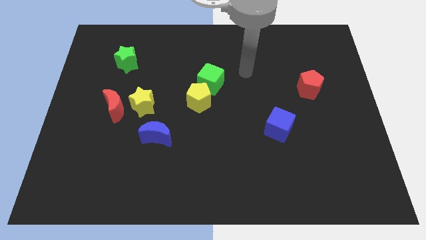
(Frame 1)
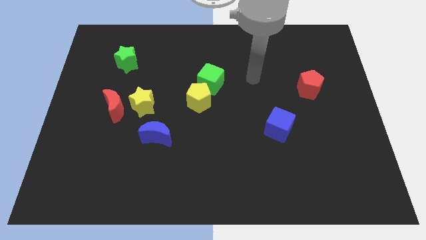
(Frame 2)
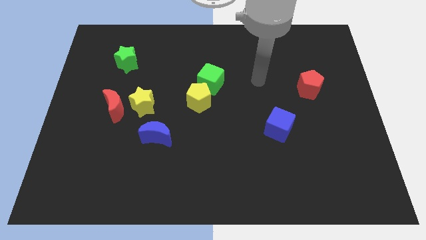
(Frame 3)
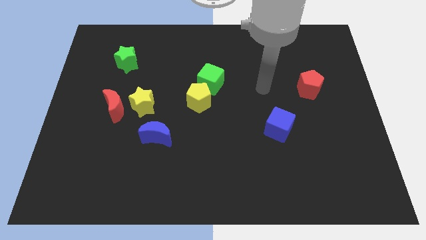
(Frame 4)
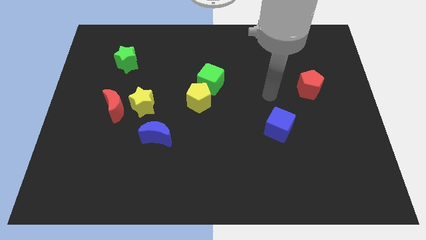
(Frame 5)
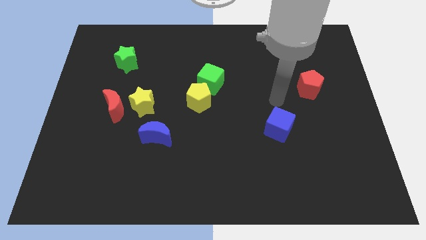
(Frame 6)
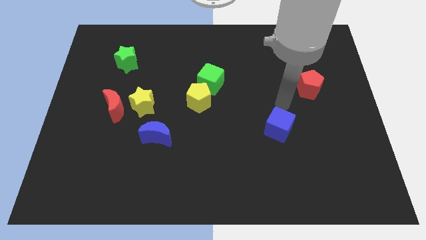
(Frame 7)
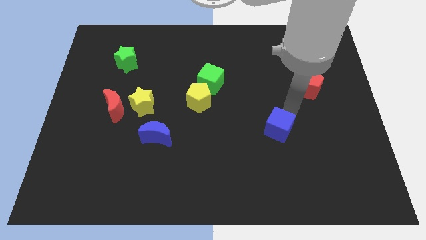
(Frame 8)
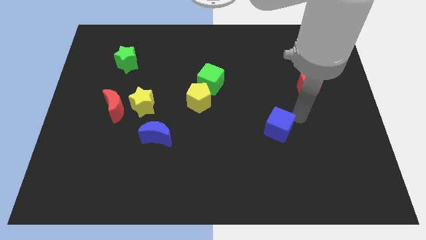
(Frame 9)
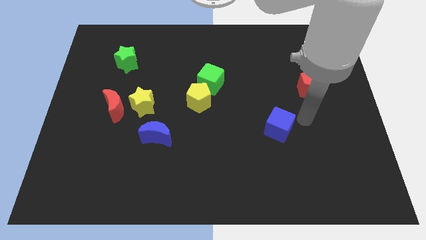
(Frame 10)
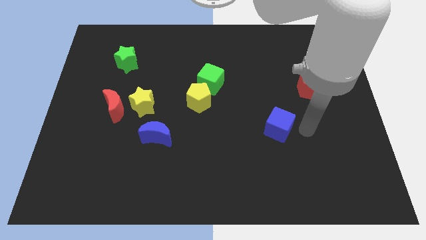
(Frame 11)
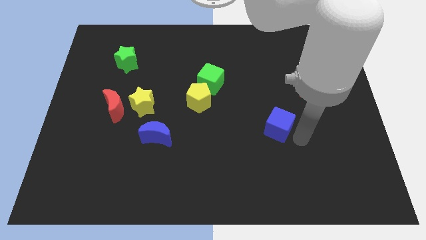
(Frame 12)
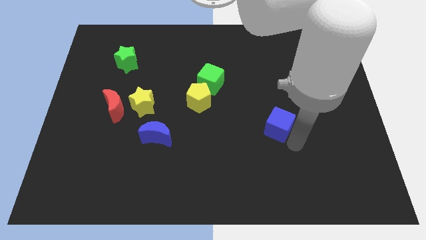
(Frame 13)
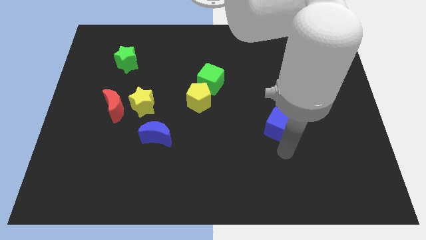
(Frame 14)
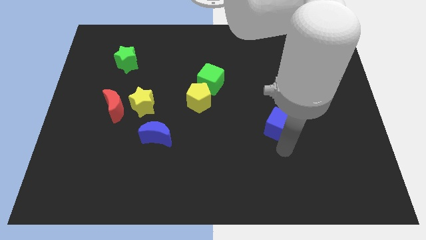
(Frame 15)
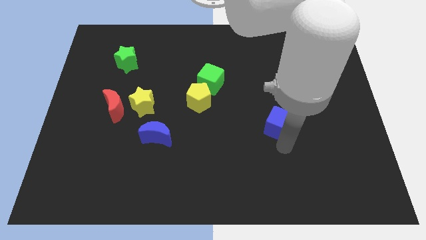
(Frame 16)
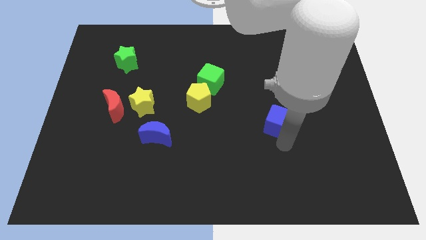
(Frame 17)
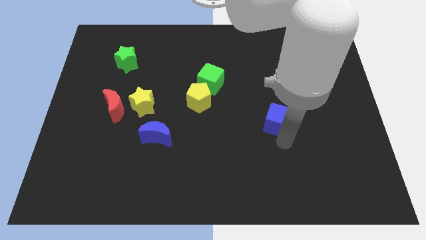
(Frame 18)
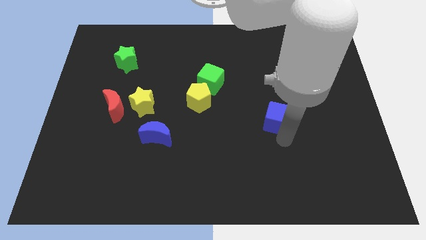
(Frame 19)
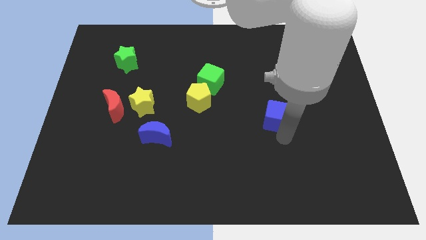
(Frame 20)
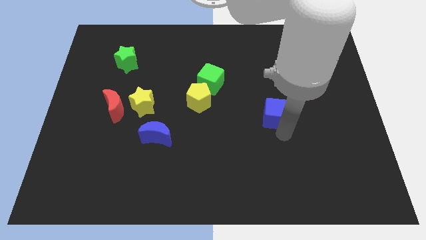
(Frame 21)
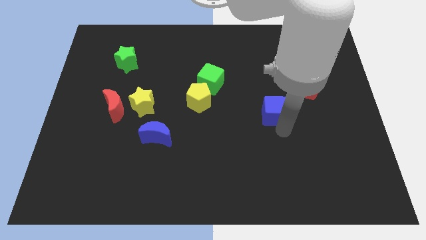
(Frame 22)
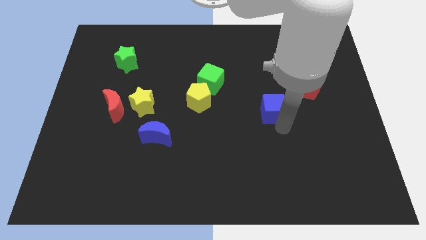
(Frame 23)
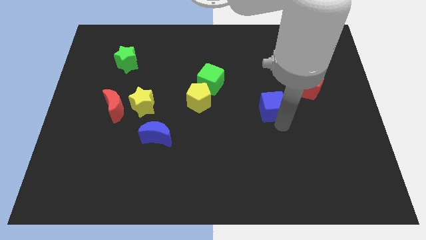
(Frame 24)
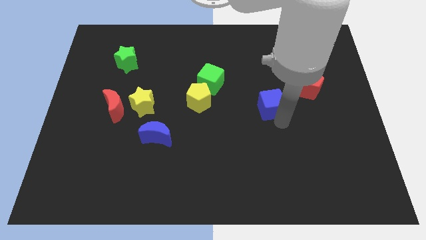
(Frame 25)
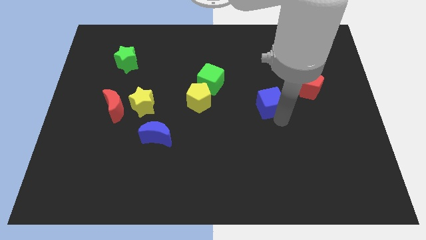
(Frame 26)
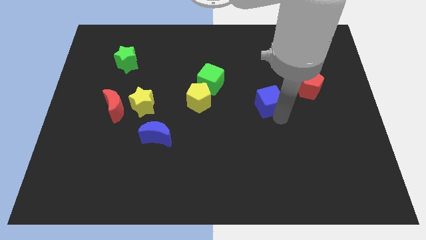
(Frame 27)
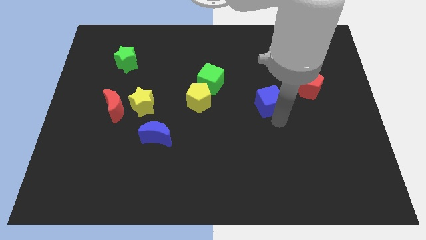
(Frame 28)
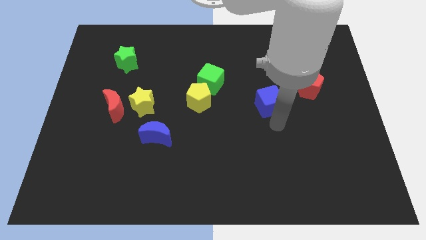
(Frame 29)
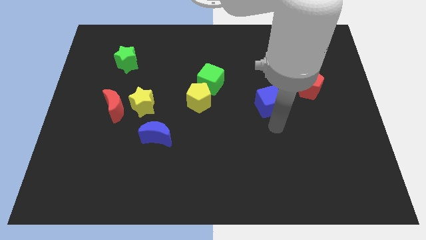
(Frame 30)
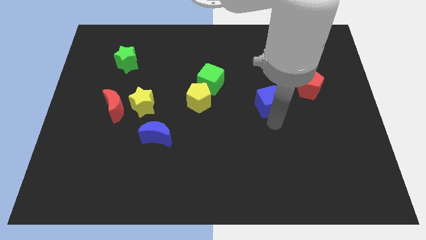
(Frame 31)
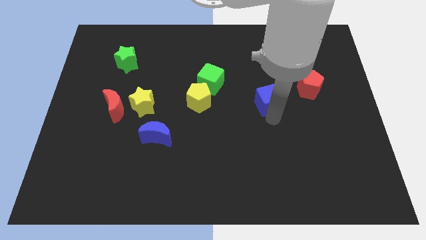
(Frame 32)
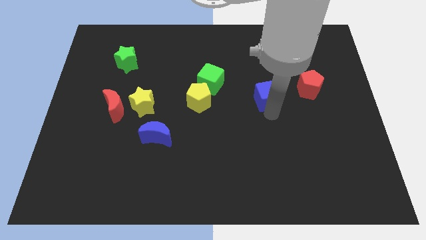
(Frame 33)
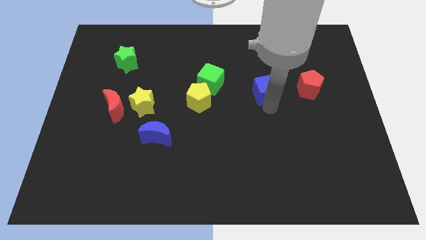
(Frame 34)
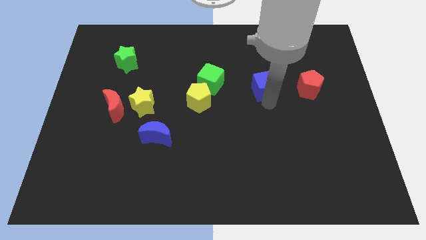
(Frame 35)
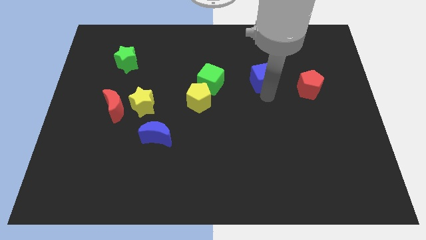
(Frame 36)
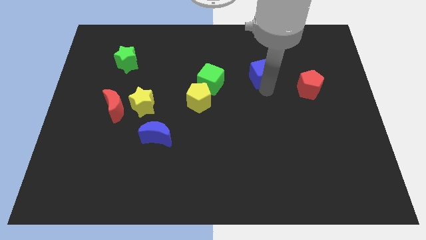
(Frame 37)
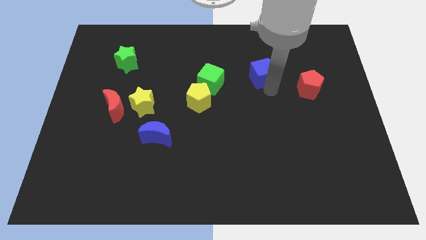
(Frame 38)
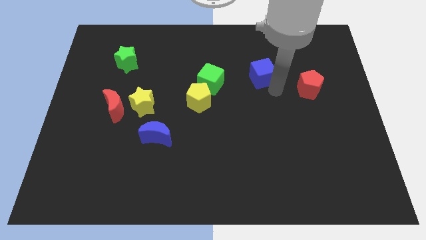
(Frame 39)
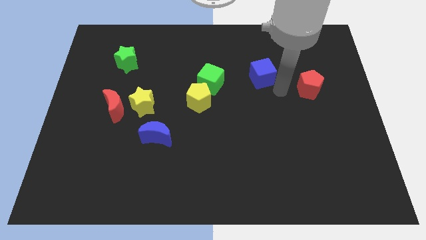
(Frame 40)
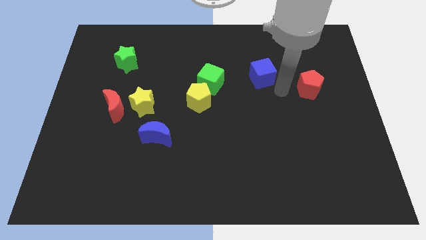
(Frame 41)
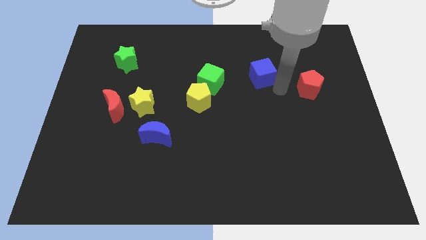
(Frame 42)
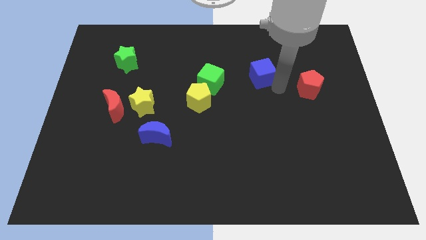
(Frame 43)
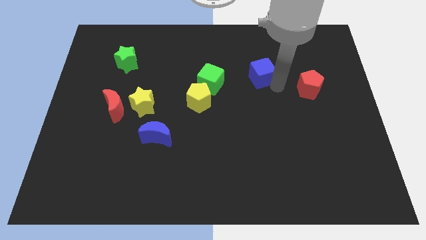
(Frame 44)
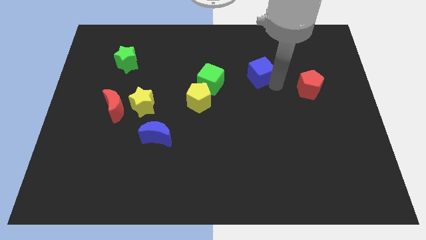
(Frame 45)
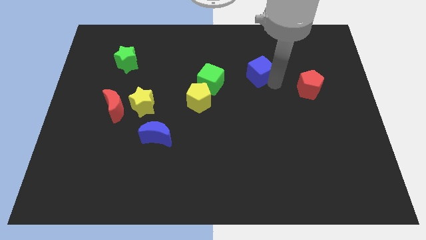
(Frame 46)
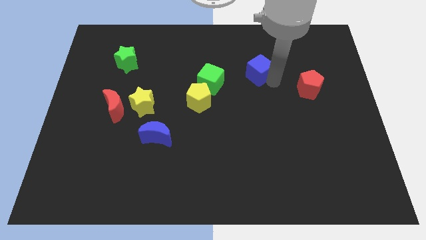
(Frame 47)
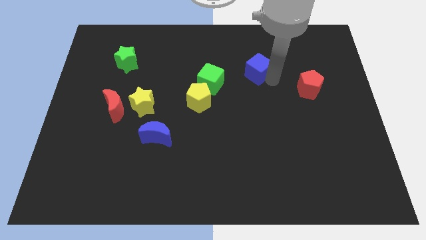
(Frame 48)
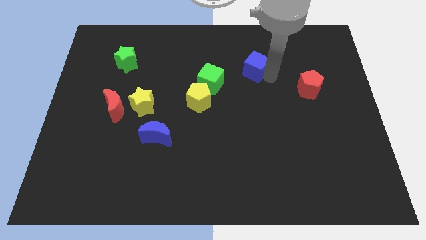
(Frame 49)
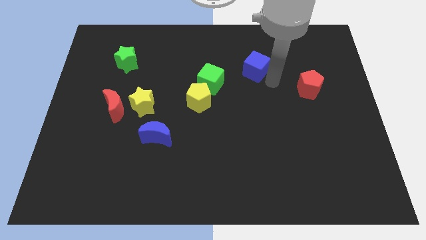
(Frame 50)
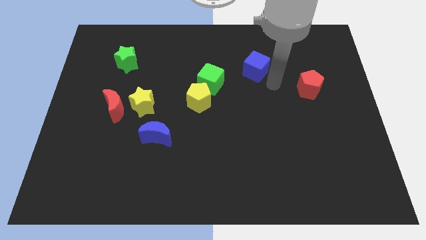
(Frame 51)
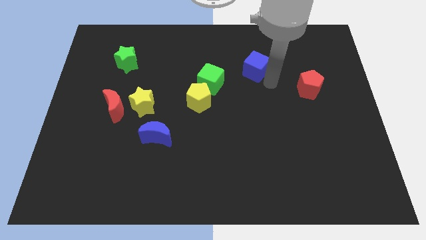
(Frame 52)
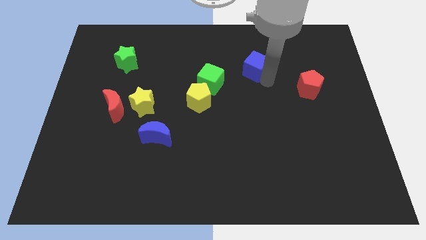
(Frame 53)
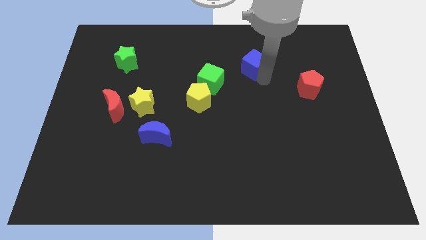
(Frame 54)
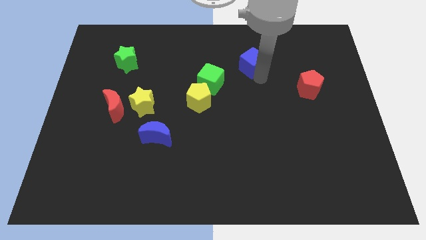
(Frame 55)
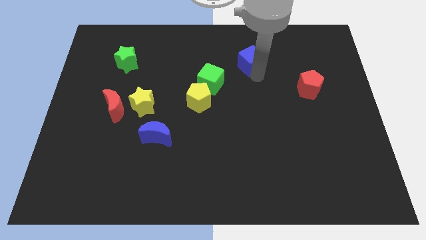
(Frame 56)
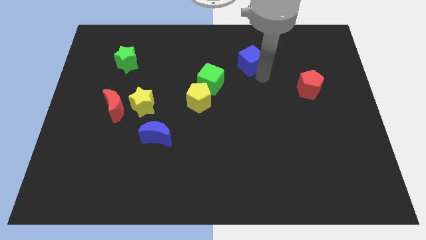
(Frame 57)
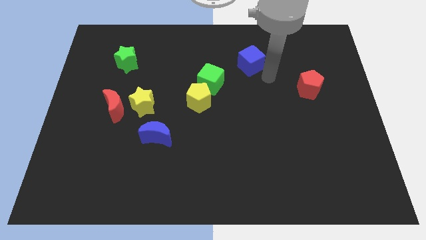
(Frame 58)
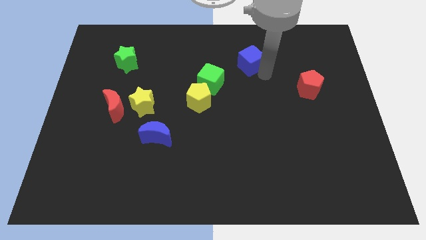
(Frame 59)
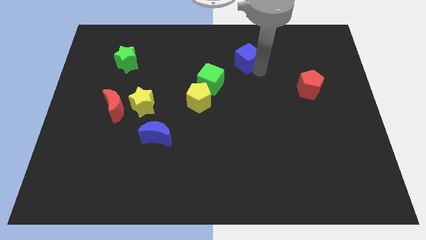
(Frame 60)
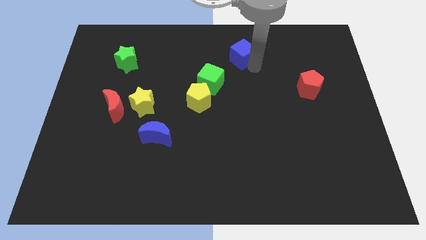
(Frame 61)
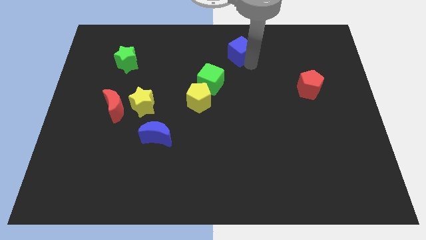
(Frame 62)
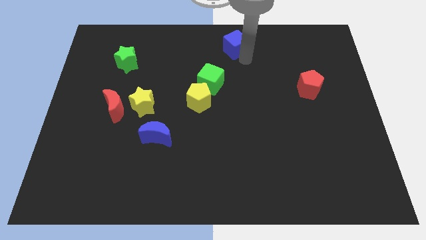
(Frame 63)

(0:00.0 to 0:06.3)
put the blue cube to the top side

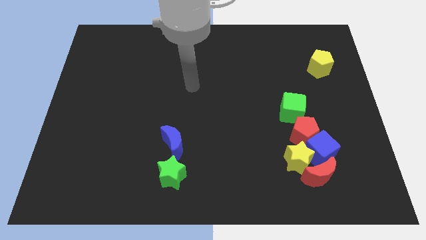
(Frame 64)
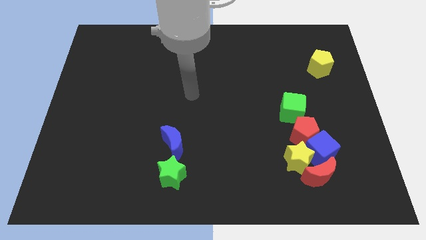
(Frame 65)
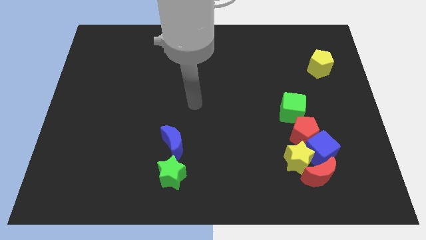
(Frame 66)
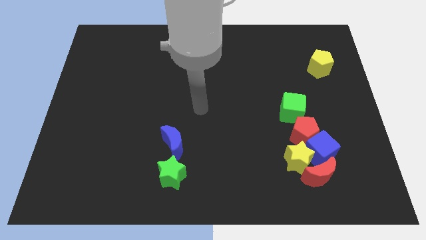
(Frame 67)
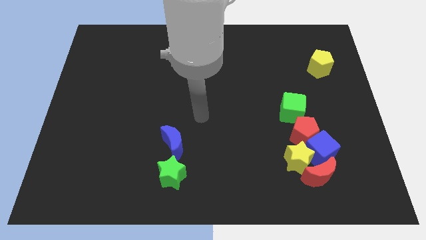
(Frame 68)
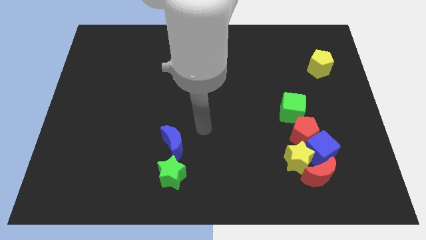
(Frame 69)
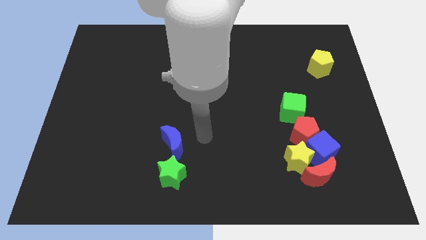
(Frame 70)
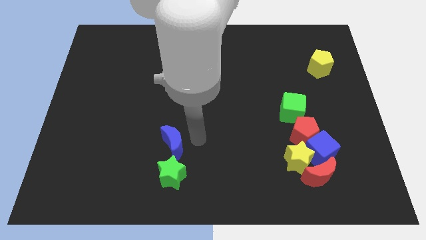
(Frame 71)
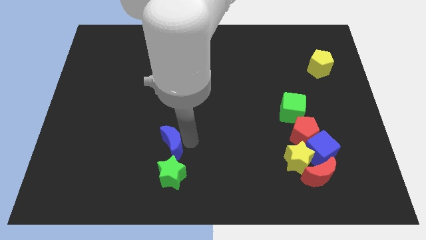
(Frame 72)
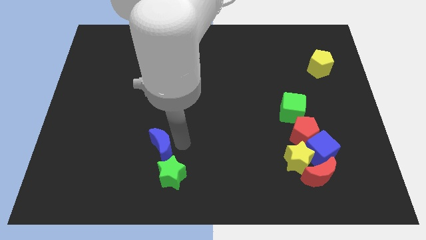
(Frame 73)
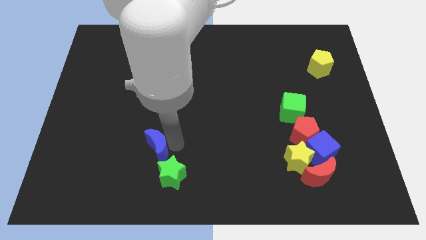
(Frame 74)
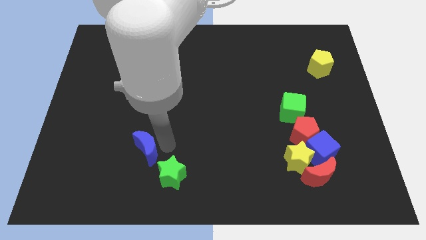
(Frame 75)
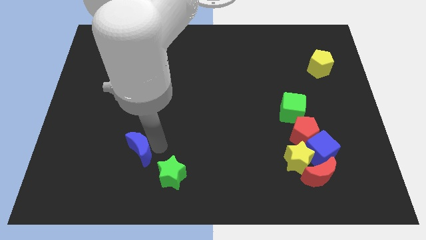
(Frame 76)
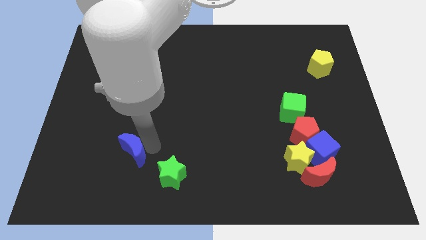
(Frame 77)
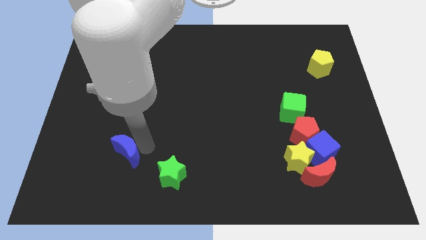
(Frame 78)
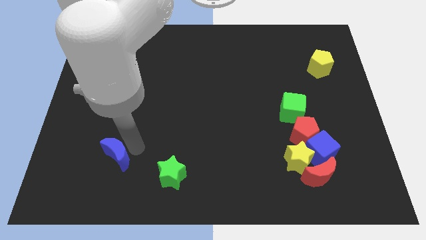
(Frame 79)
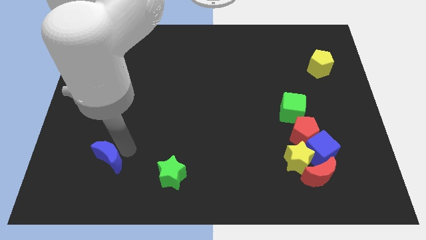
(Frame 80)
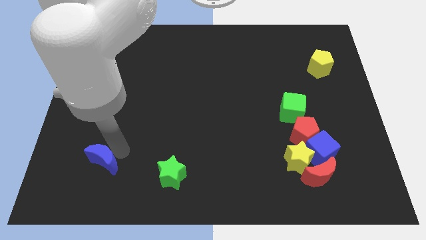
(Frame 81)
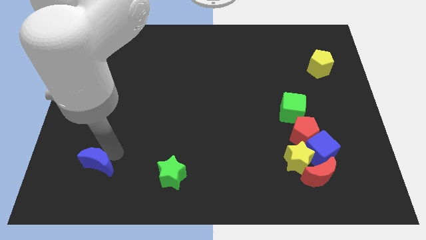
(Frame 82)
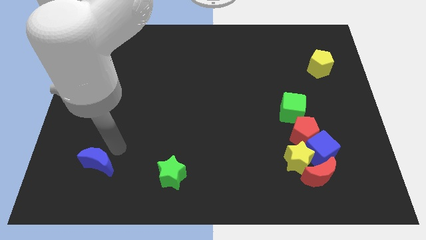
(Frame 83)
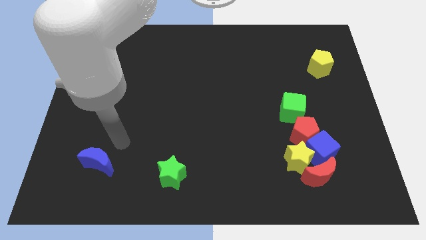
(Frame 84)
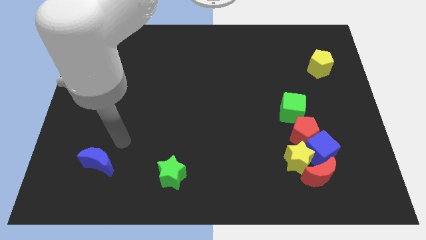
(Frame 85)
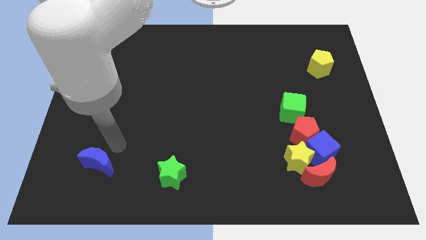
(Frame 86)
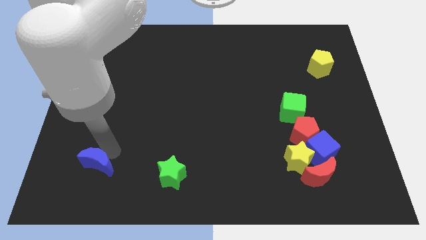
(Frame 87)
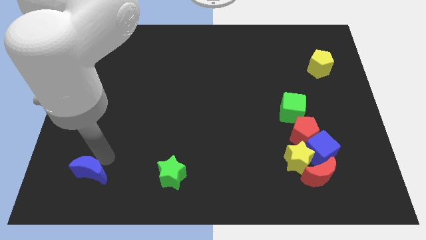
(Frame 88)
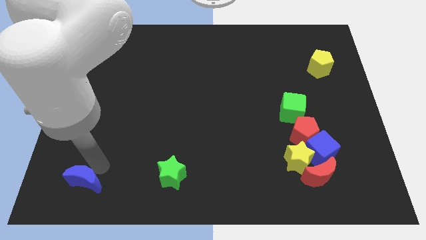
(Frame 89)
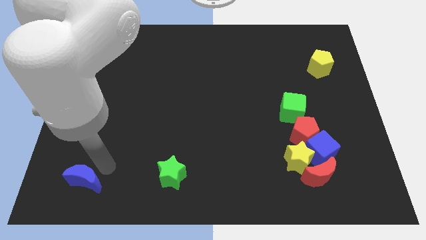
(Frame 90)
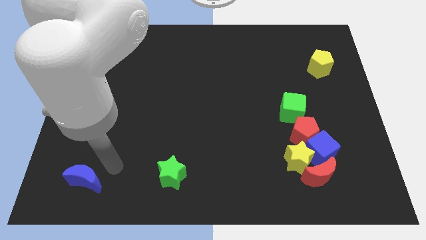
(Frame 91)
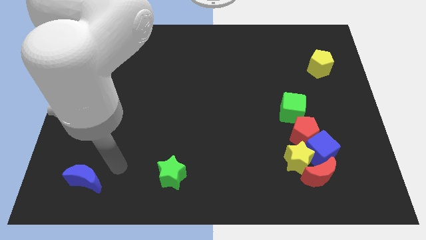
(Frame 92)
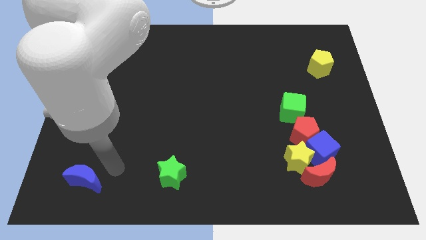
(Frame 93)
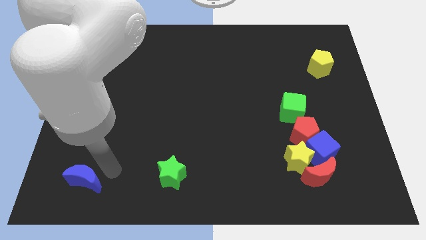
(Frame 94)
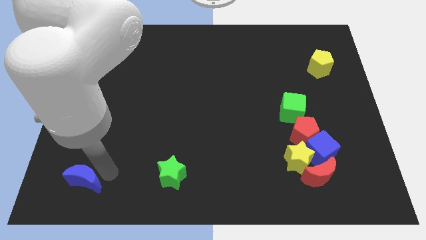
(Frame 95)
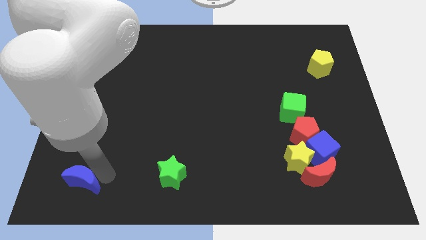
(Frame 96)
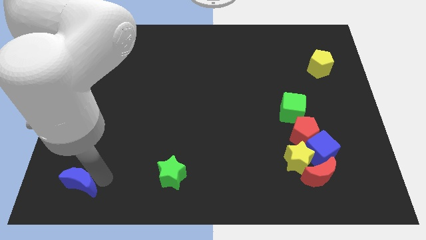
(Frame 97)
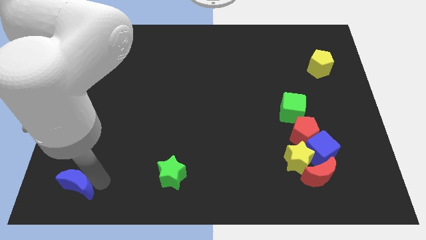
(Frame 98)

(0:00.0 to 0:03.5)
move the blue moon to the bottom left
